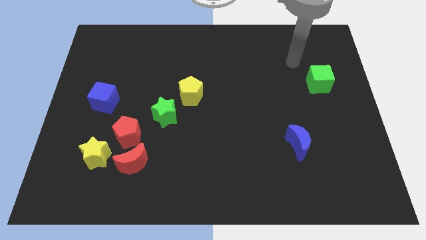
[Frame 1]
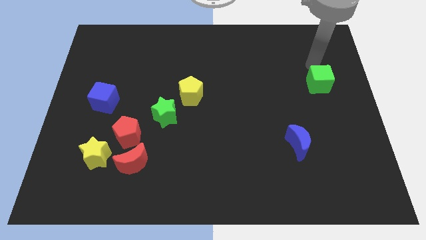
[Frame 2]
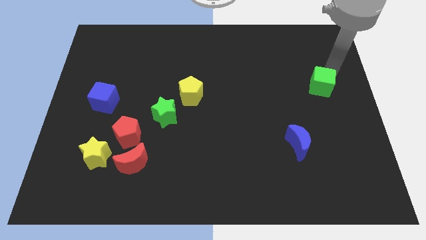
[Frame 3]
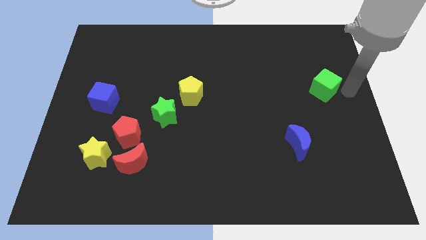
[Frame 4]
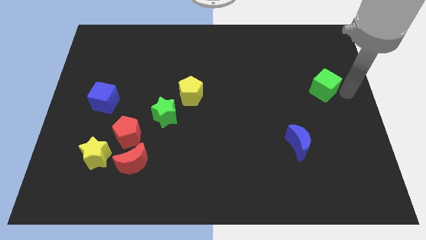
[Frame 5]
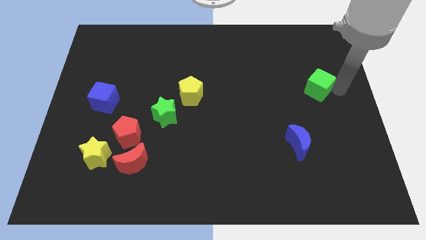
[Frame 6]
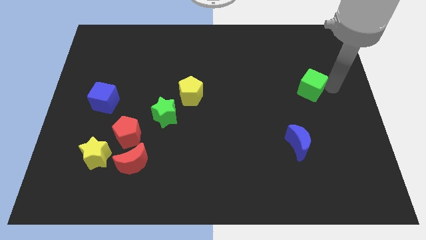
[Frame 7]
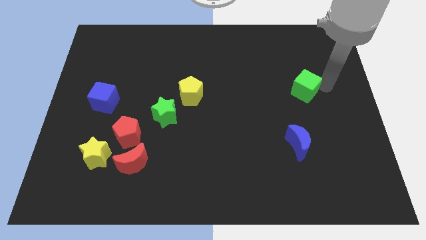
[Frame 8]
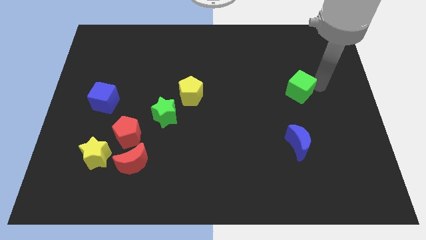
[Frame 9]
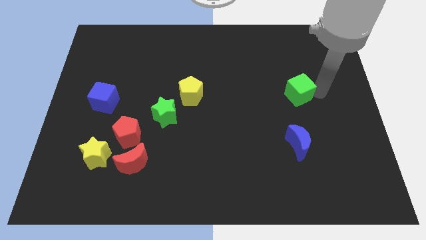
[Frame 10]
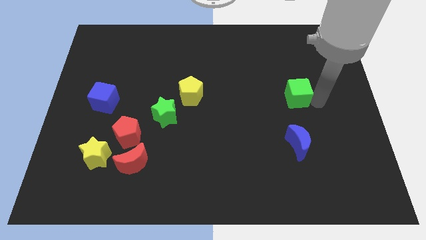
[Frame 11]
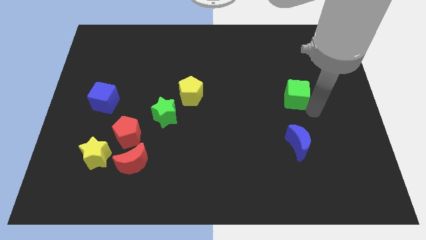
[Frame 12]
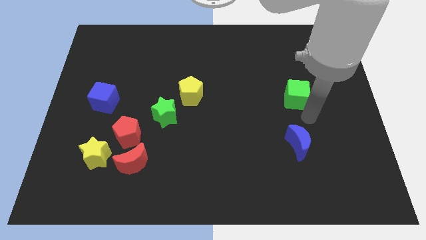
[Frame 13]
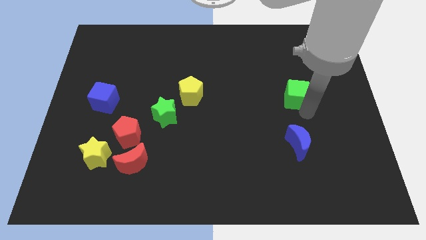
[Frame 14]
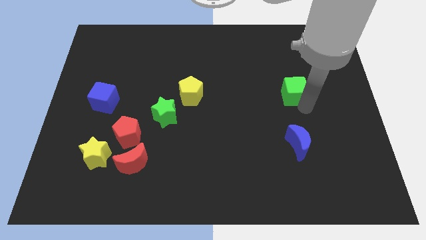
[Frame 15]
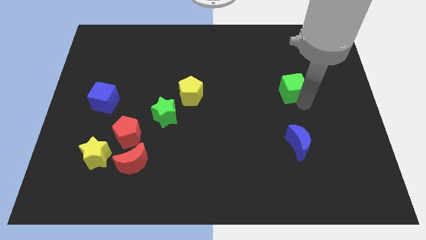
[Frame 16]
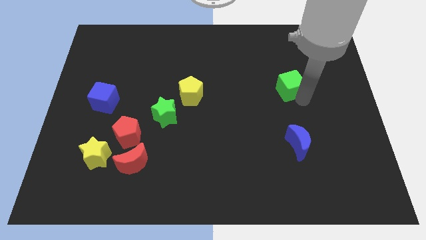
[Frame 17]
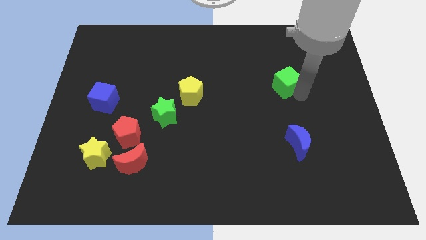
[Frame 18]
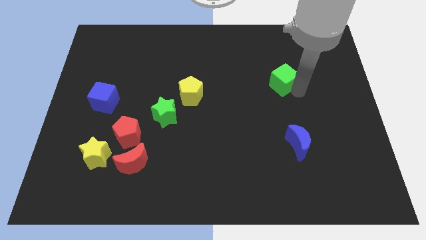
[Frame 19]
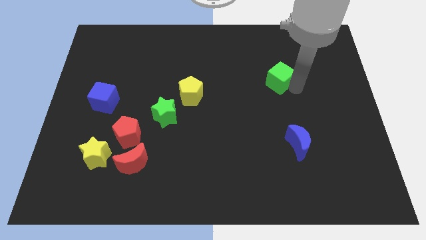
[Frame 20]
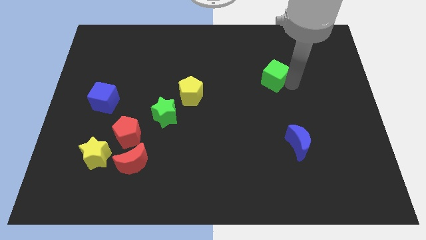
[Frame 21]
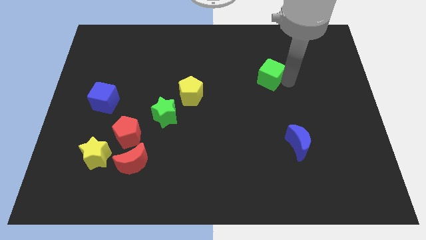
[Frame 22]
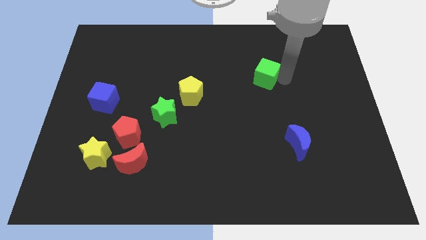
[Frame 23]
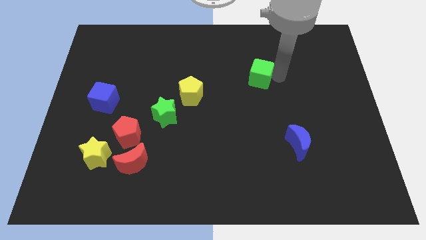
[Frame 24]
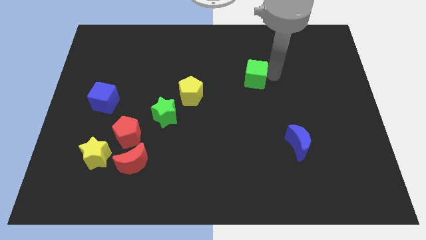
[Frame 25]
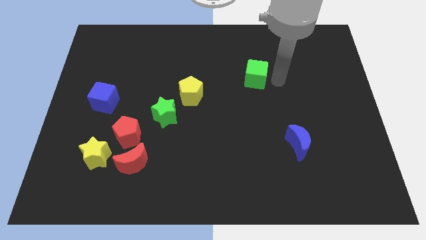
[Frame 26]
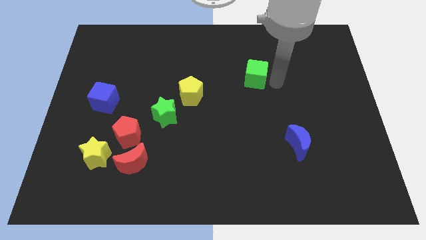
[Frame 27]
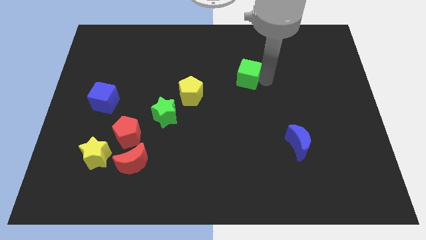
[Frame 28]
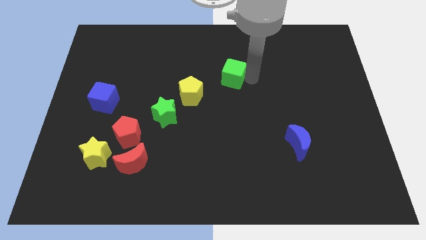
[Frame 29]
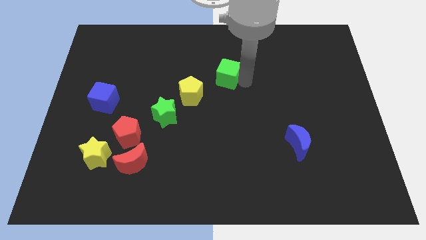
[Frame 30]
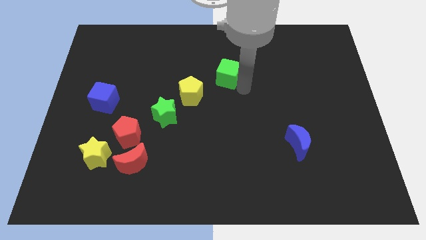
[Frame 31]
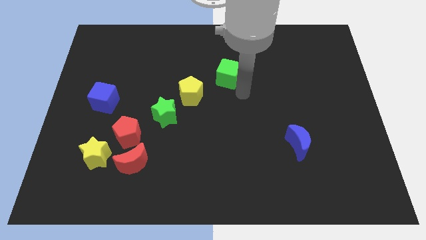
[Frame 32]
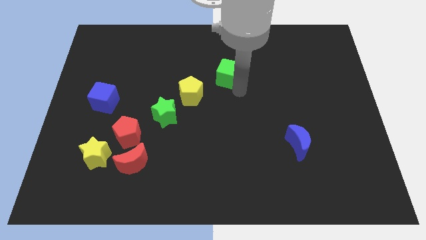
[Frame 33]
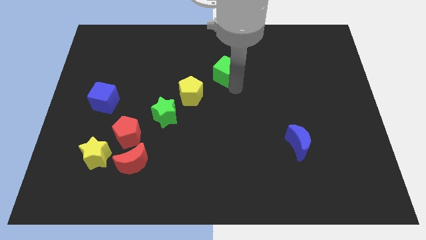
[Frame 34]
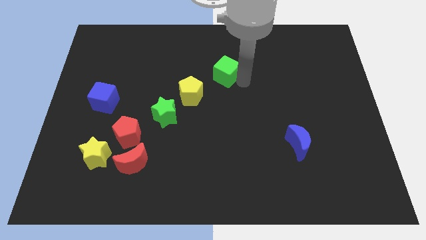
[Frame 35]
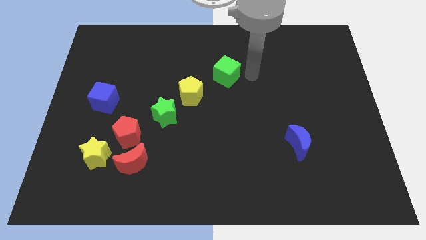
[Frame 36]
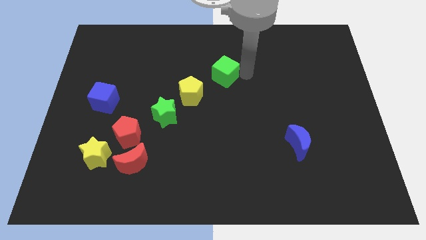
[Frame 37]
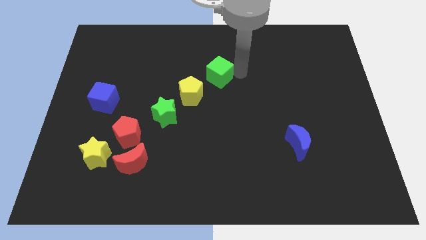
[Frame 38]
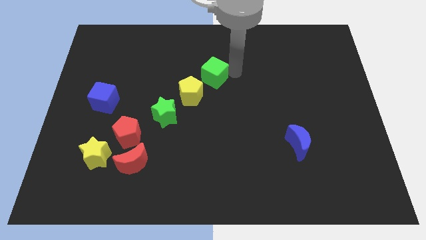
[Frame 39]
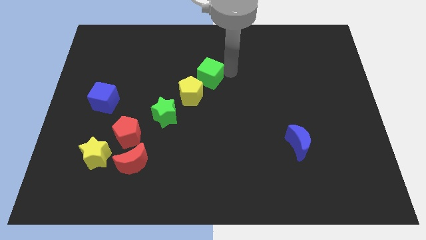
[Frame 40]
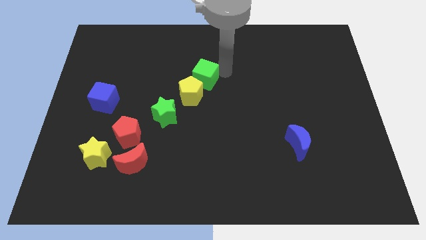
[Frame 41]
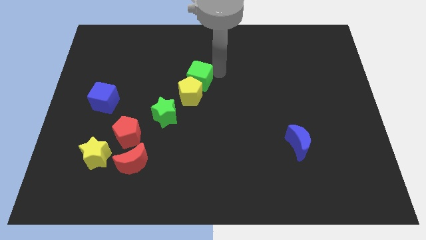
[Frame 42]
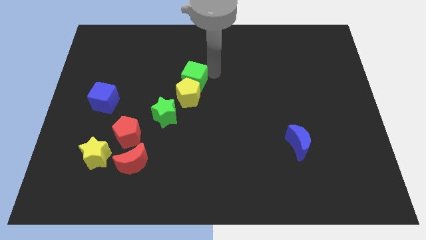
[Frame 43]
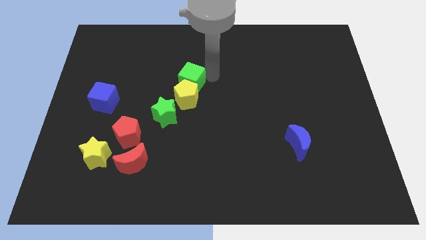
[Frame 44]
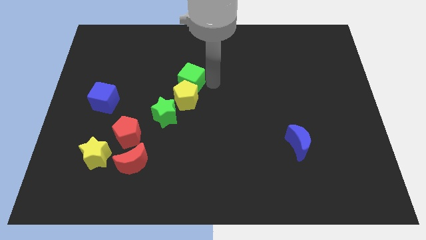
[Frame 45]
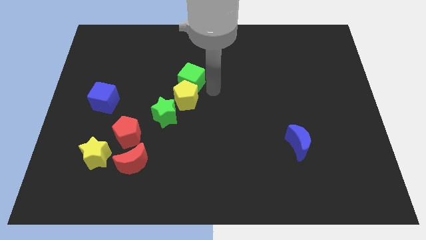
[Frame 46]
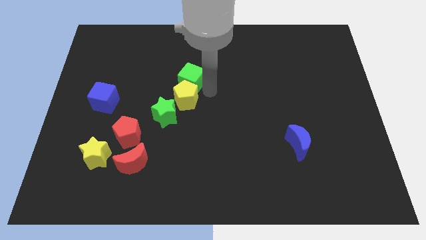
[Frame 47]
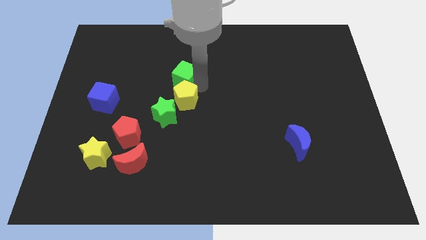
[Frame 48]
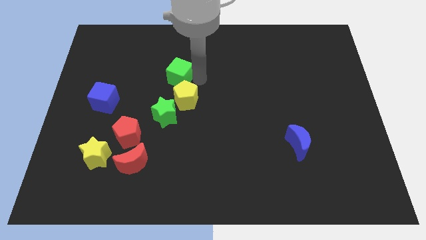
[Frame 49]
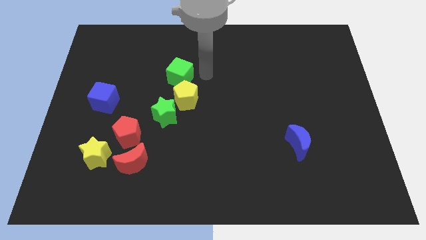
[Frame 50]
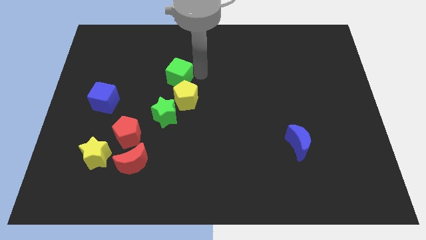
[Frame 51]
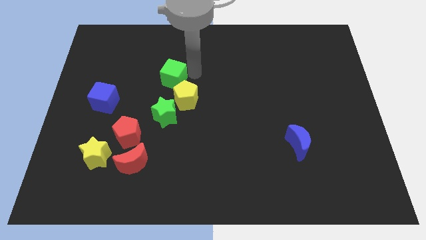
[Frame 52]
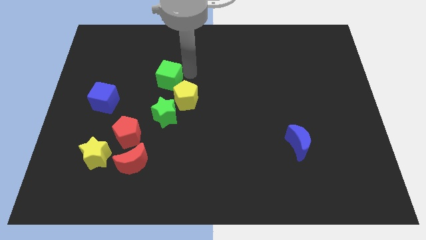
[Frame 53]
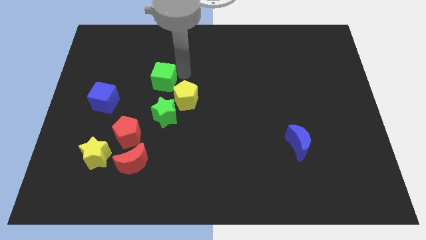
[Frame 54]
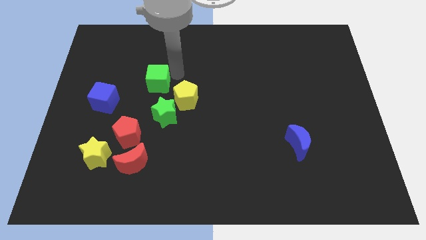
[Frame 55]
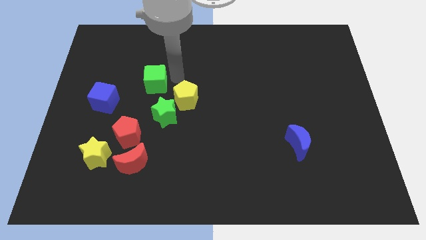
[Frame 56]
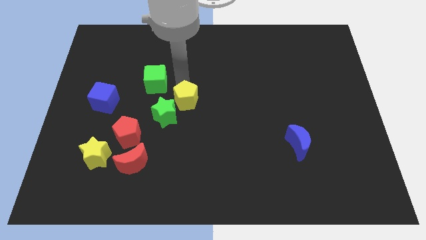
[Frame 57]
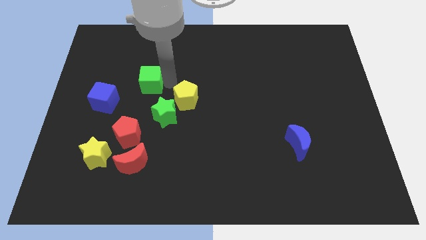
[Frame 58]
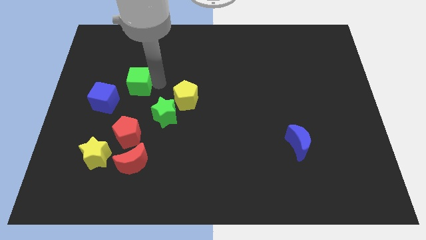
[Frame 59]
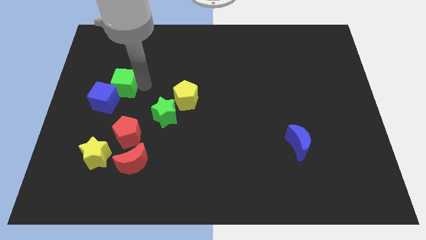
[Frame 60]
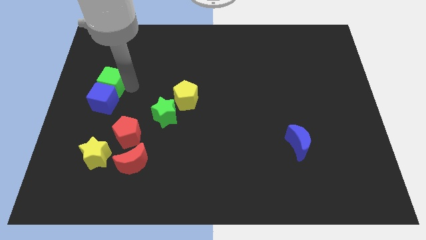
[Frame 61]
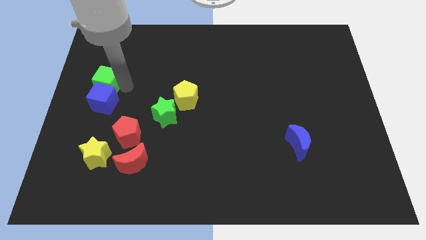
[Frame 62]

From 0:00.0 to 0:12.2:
put the green cube to the left side of the board

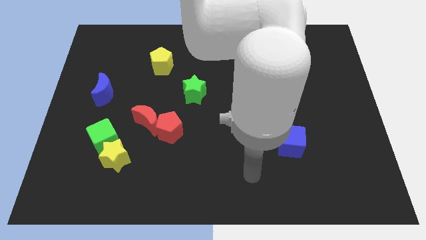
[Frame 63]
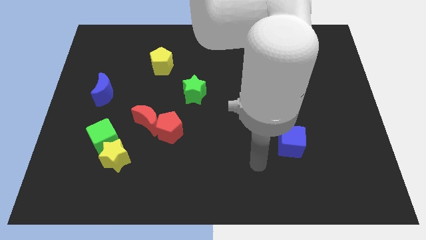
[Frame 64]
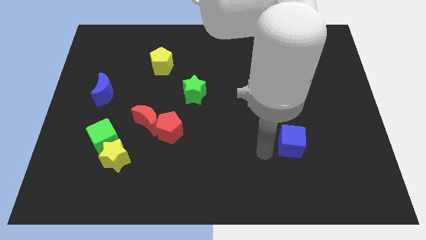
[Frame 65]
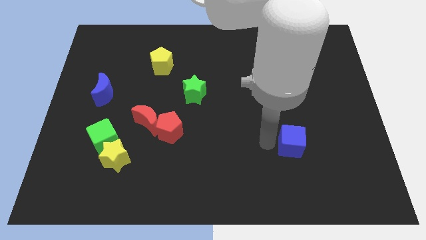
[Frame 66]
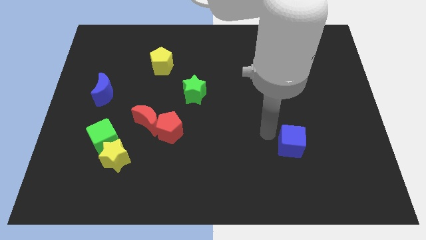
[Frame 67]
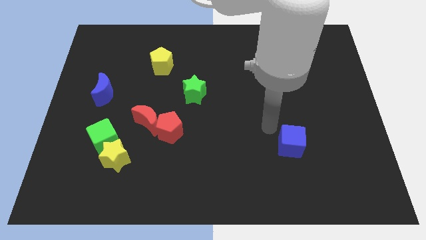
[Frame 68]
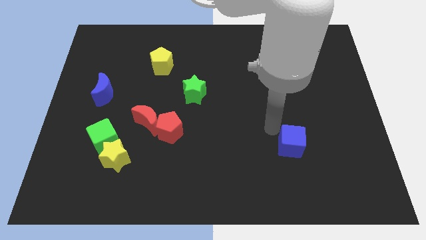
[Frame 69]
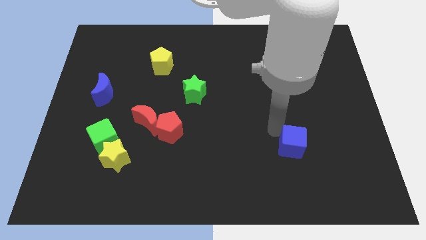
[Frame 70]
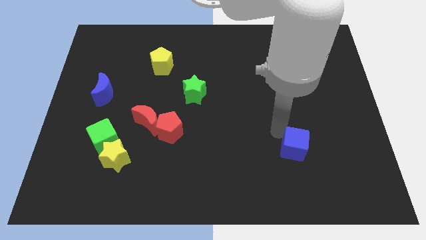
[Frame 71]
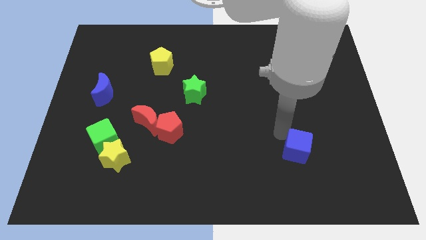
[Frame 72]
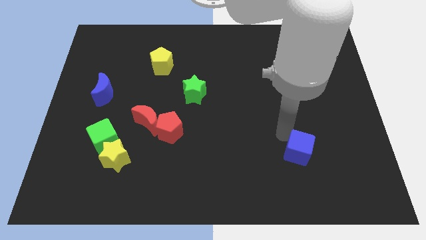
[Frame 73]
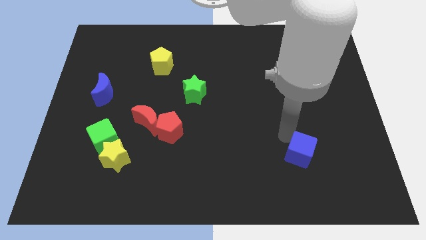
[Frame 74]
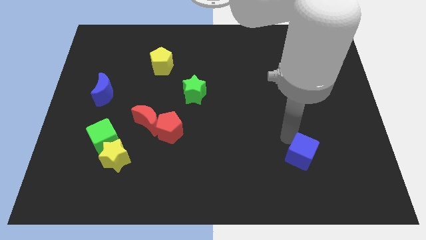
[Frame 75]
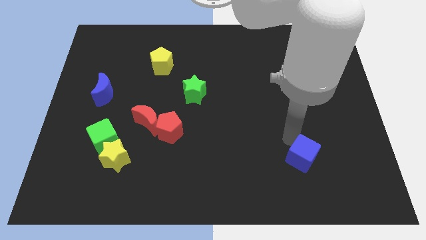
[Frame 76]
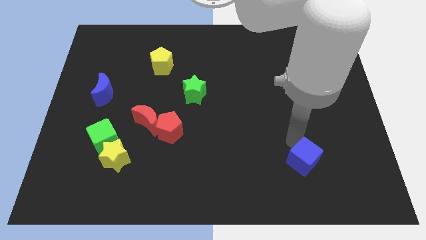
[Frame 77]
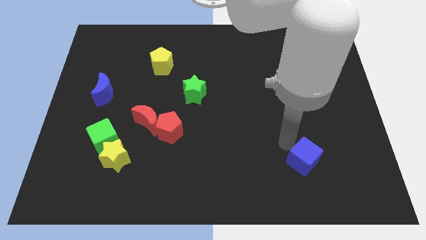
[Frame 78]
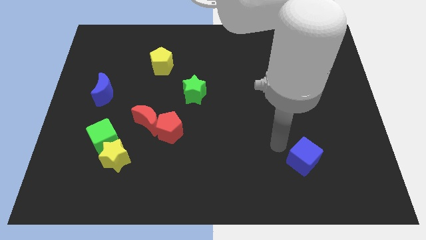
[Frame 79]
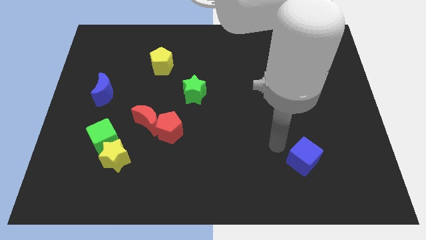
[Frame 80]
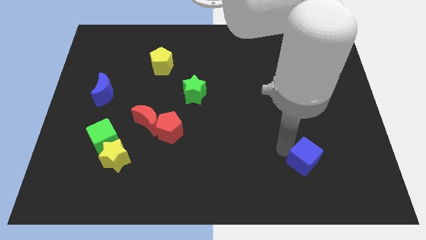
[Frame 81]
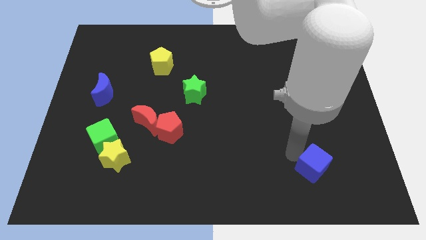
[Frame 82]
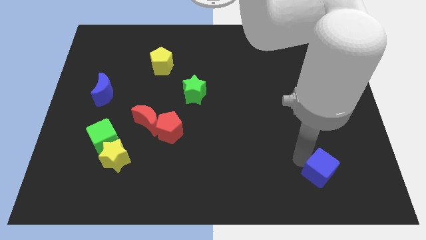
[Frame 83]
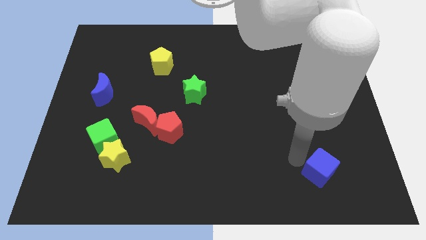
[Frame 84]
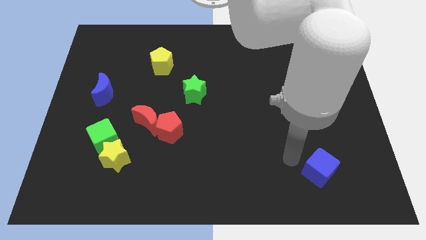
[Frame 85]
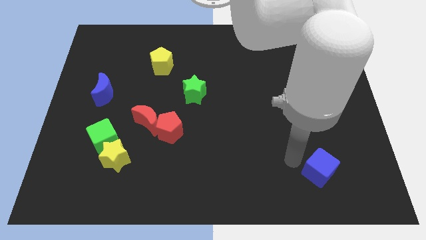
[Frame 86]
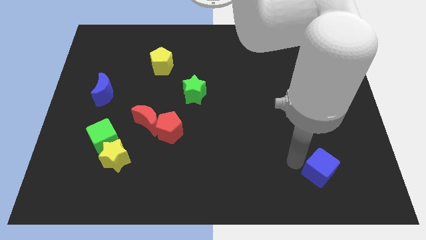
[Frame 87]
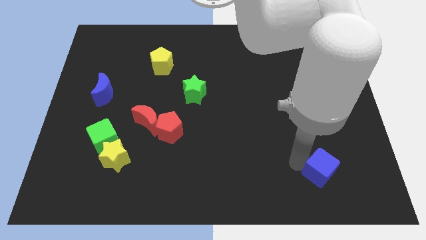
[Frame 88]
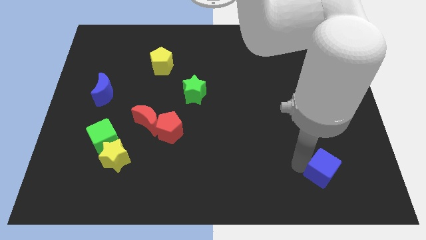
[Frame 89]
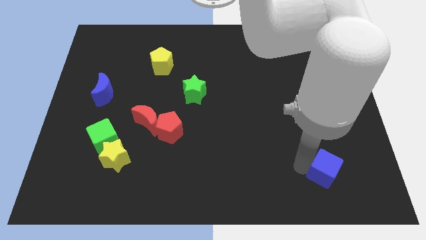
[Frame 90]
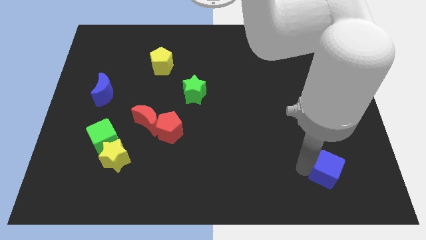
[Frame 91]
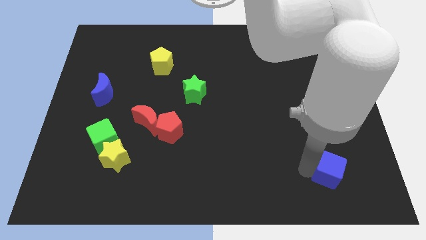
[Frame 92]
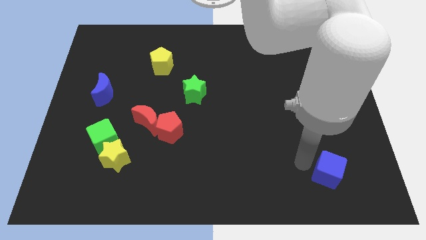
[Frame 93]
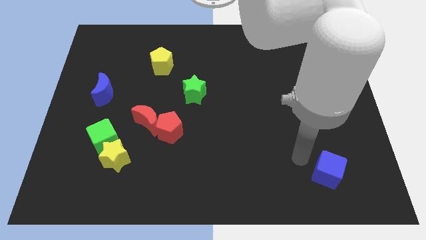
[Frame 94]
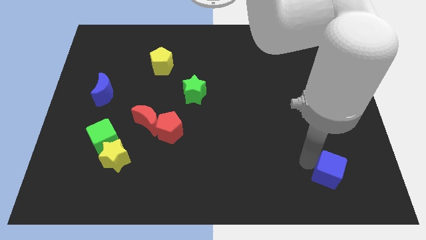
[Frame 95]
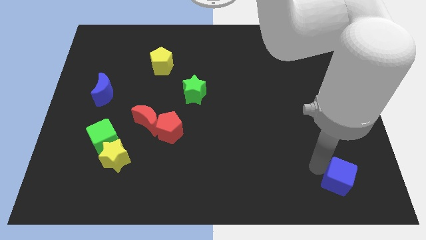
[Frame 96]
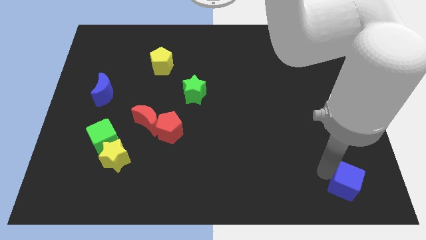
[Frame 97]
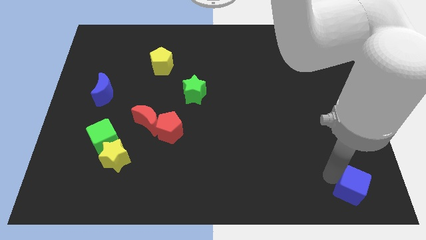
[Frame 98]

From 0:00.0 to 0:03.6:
move the blue cube to the bottom right of the board
